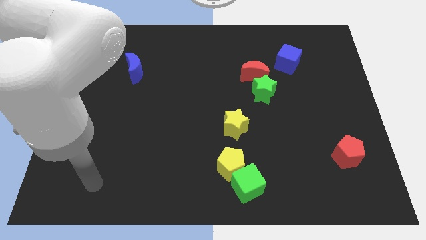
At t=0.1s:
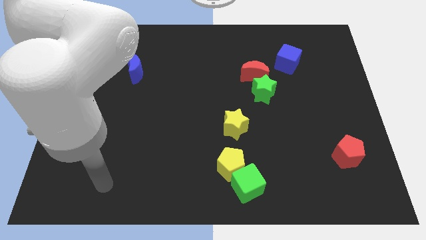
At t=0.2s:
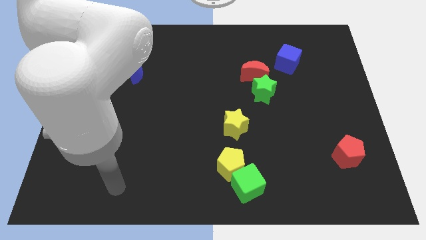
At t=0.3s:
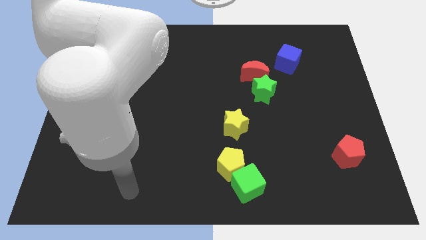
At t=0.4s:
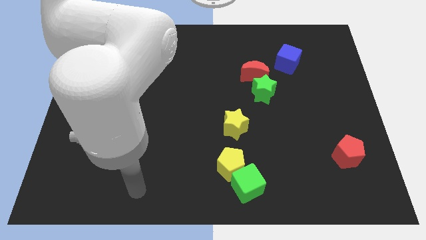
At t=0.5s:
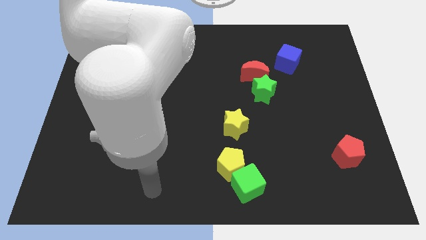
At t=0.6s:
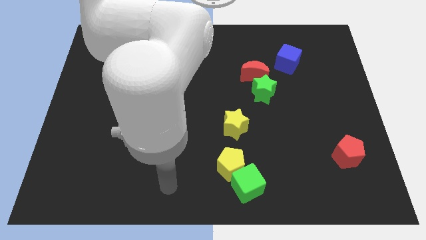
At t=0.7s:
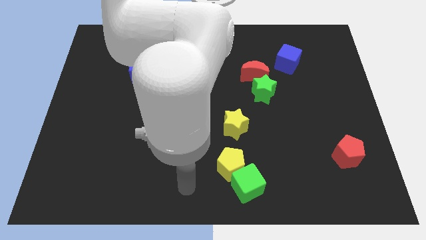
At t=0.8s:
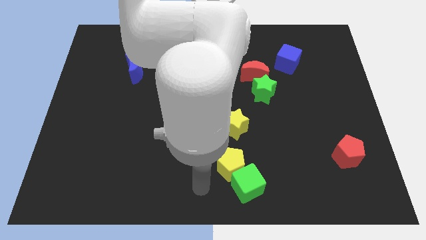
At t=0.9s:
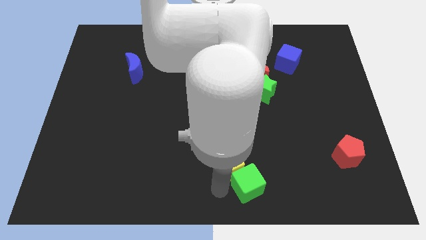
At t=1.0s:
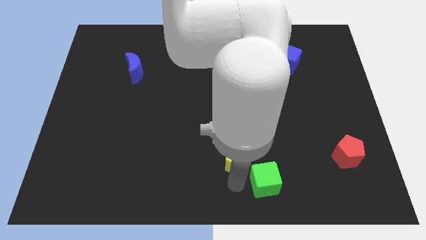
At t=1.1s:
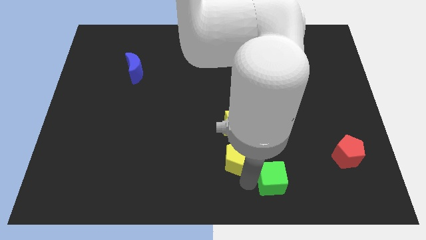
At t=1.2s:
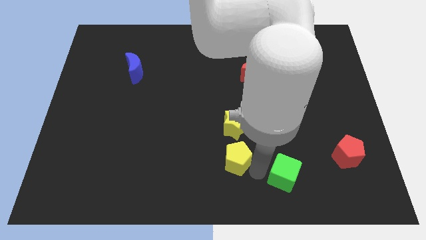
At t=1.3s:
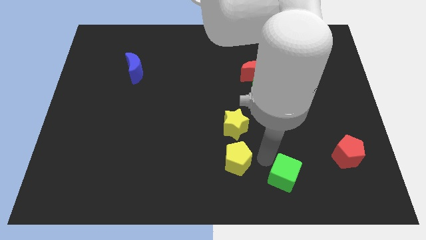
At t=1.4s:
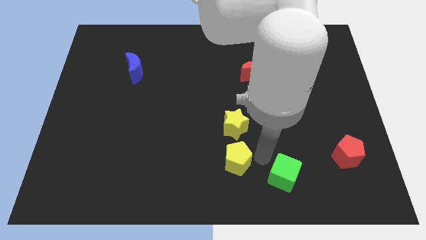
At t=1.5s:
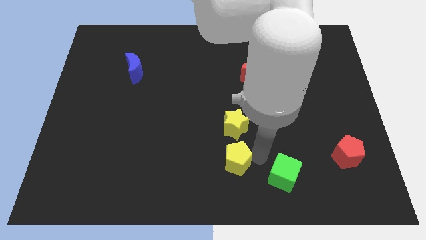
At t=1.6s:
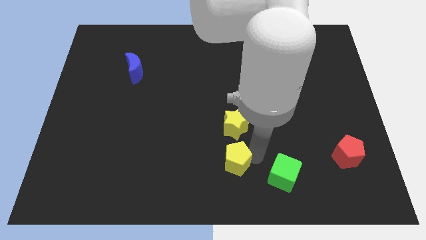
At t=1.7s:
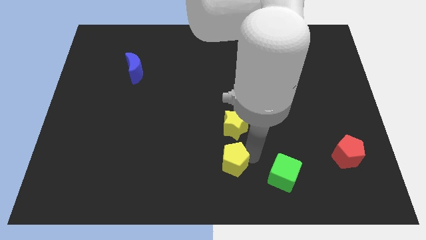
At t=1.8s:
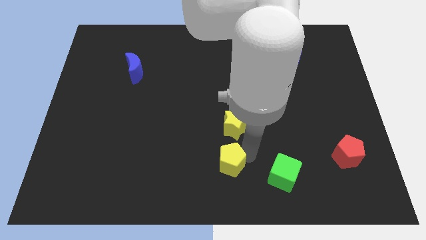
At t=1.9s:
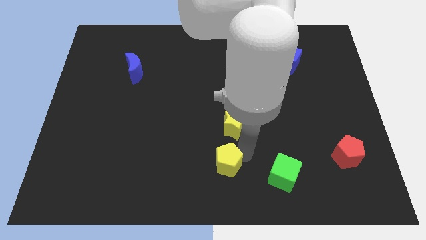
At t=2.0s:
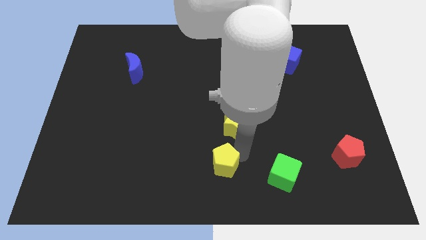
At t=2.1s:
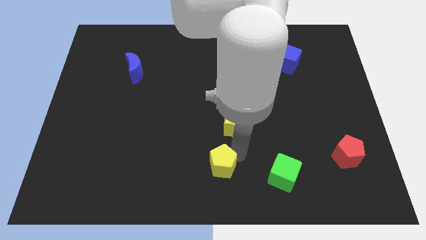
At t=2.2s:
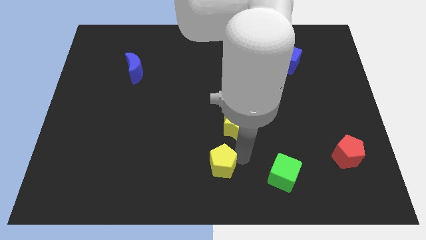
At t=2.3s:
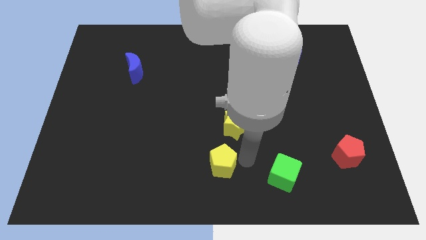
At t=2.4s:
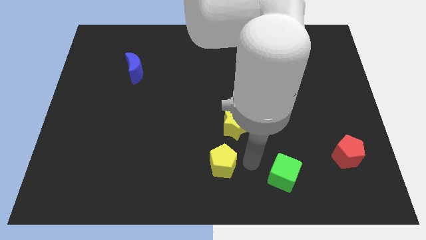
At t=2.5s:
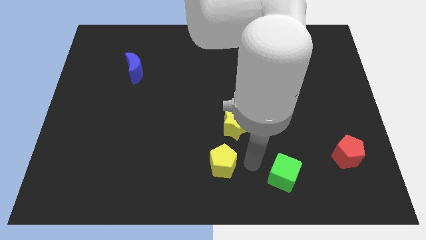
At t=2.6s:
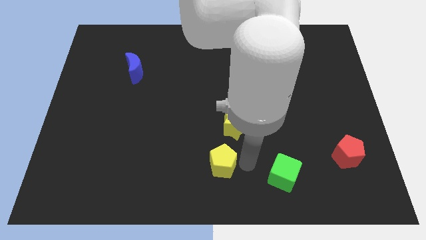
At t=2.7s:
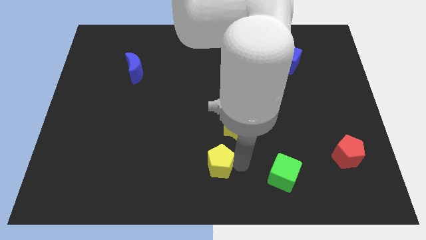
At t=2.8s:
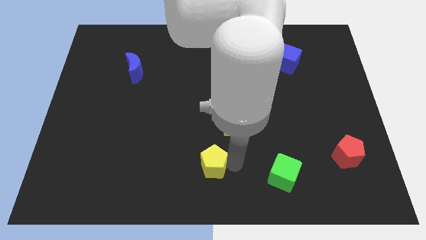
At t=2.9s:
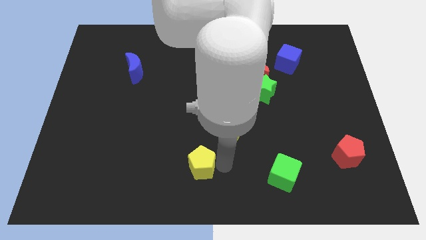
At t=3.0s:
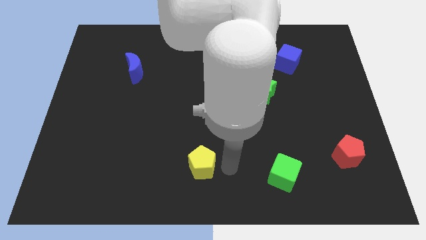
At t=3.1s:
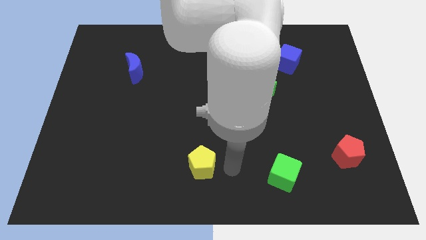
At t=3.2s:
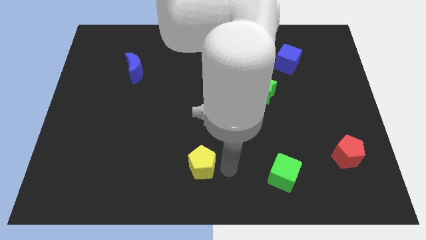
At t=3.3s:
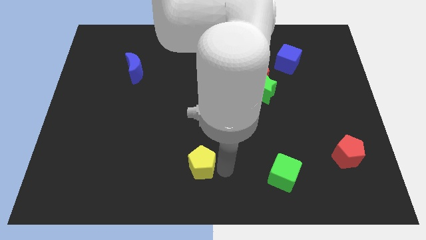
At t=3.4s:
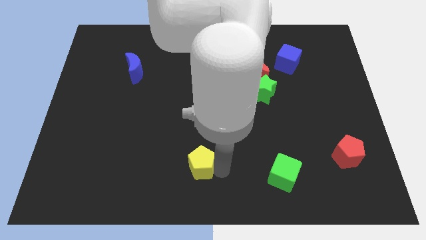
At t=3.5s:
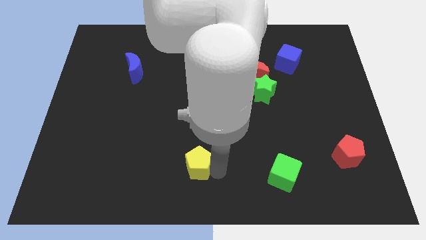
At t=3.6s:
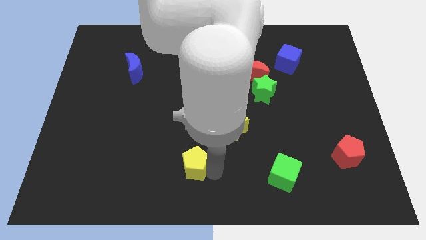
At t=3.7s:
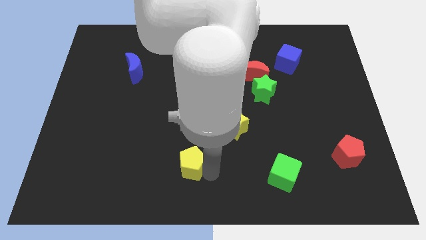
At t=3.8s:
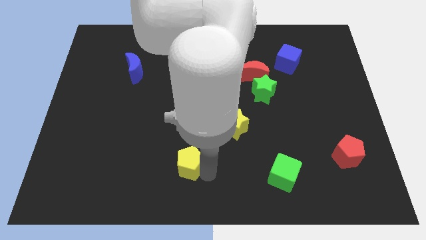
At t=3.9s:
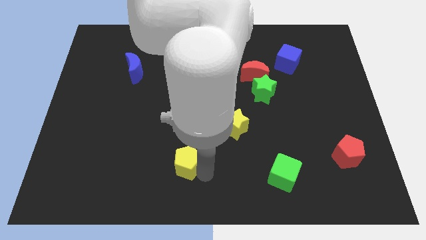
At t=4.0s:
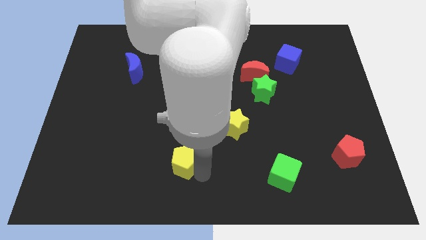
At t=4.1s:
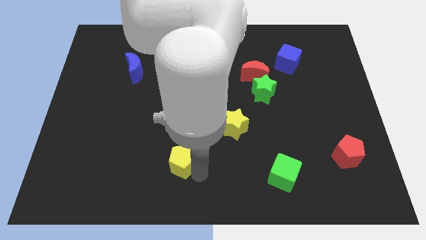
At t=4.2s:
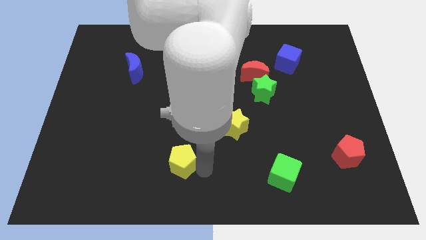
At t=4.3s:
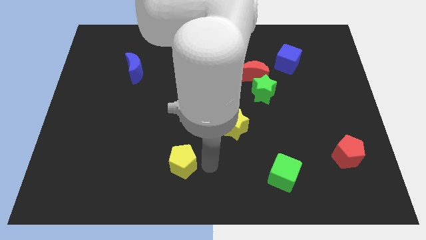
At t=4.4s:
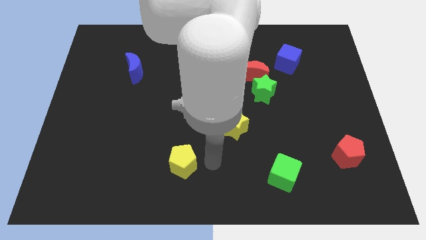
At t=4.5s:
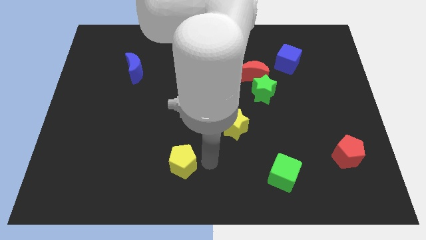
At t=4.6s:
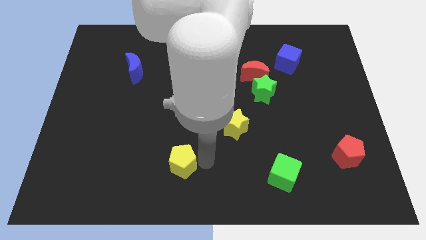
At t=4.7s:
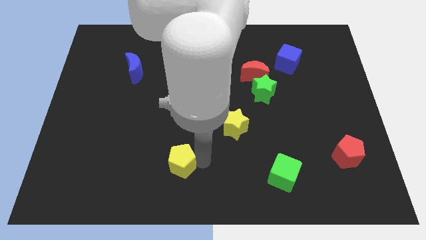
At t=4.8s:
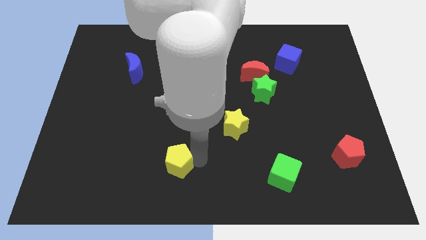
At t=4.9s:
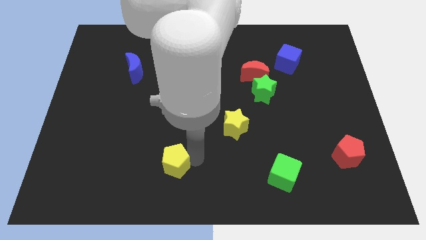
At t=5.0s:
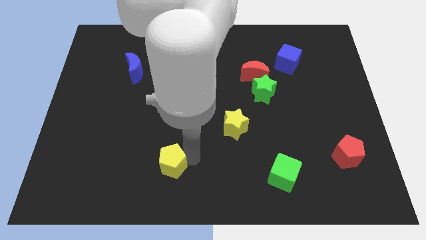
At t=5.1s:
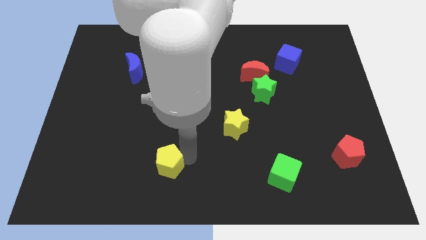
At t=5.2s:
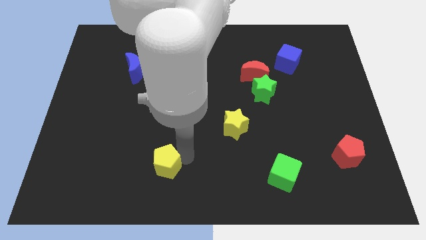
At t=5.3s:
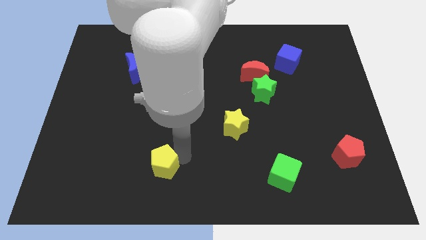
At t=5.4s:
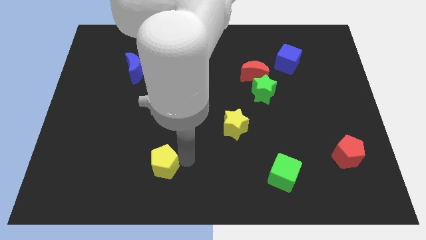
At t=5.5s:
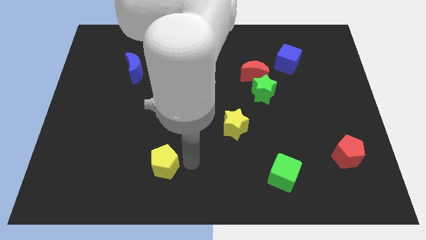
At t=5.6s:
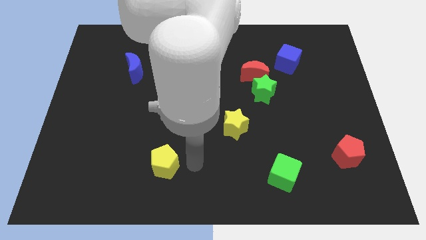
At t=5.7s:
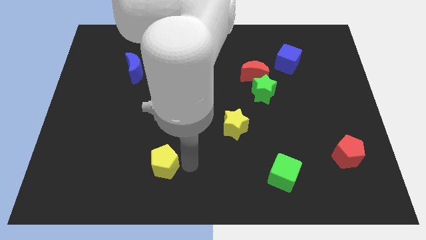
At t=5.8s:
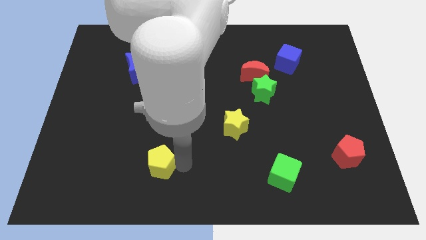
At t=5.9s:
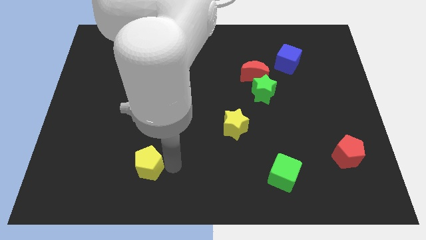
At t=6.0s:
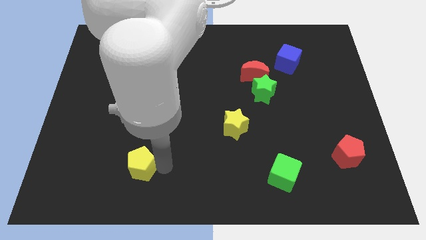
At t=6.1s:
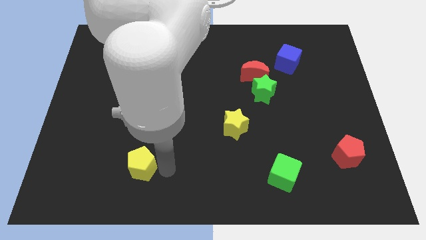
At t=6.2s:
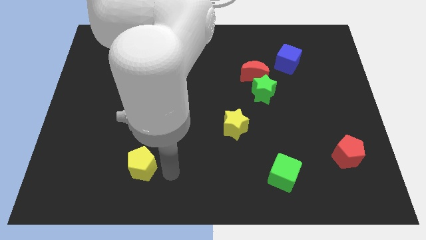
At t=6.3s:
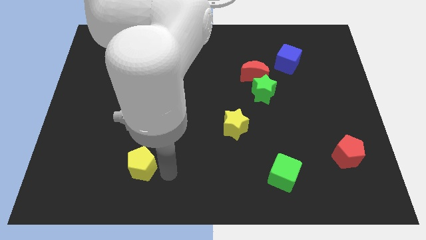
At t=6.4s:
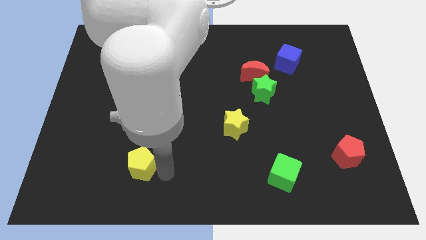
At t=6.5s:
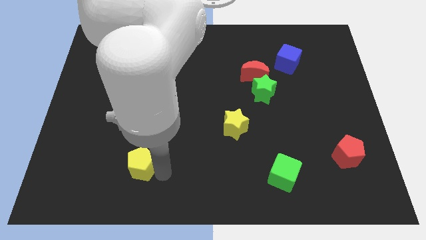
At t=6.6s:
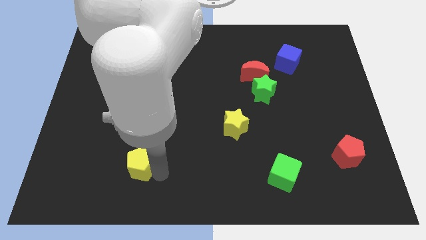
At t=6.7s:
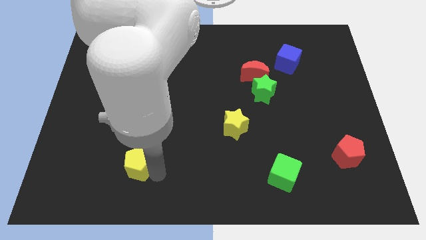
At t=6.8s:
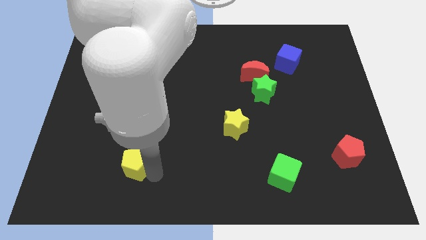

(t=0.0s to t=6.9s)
move the yellow pentagon to the left

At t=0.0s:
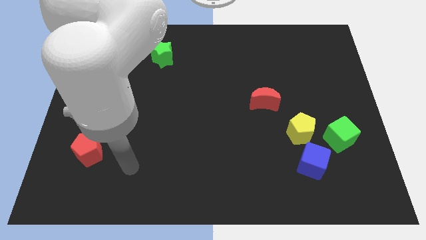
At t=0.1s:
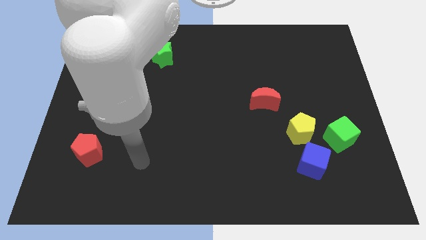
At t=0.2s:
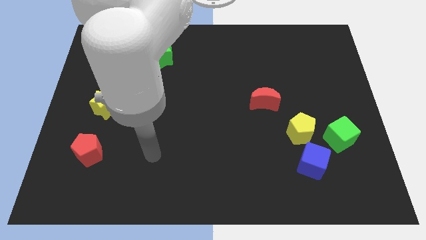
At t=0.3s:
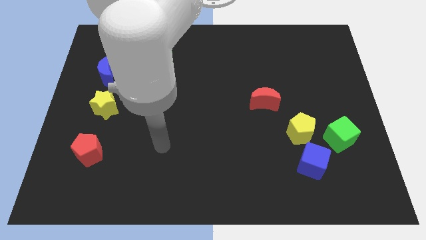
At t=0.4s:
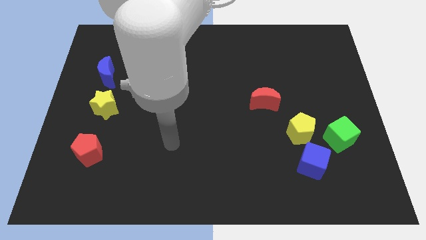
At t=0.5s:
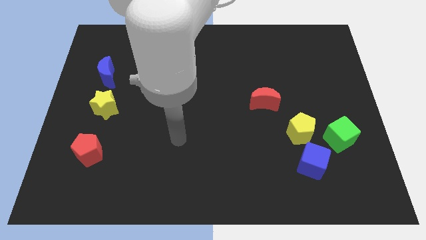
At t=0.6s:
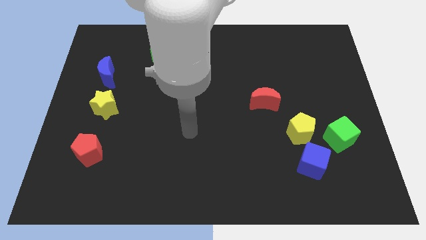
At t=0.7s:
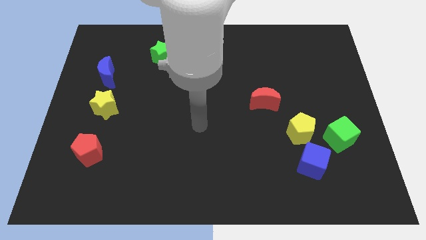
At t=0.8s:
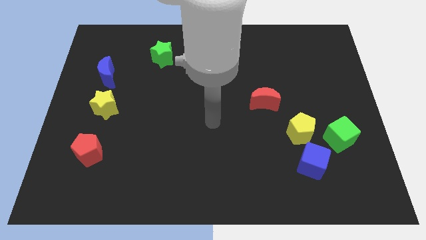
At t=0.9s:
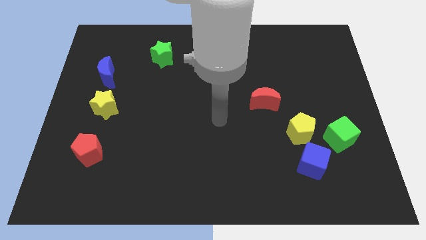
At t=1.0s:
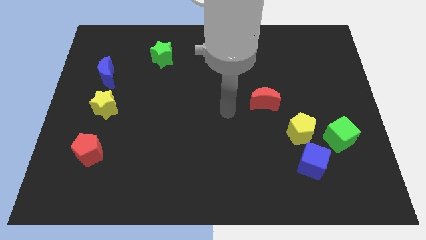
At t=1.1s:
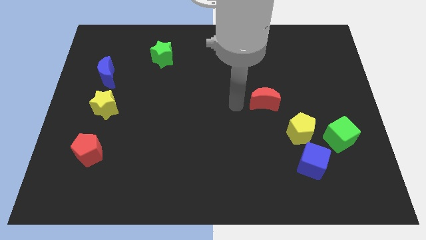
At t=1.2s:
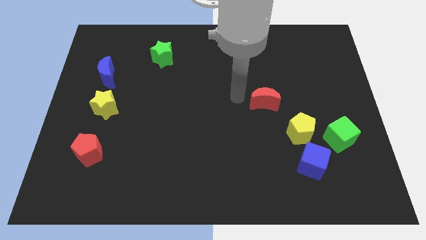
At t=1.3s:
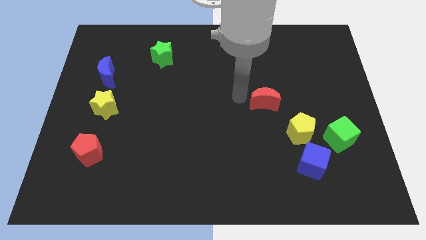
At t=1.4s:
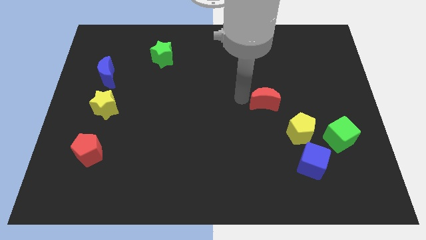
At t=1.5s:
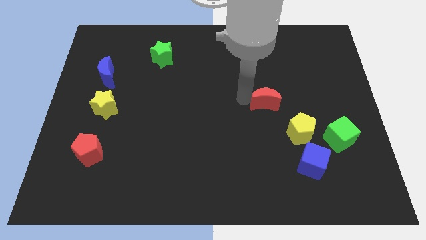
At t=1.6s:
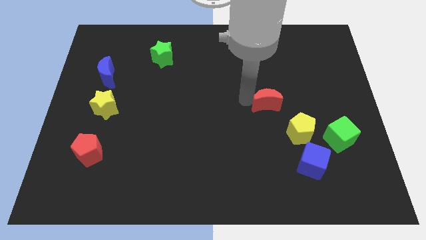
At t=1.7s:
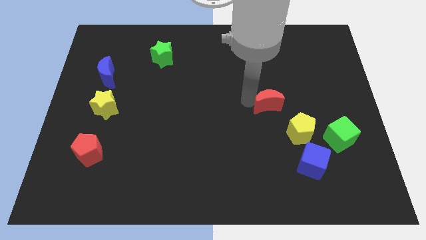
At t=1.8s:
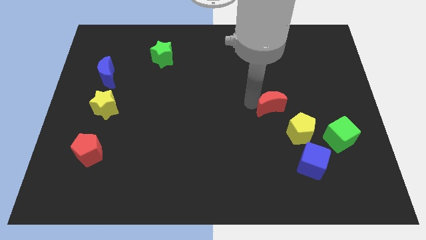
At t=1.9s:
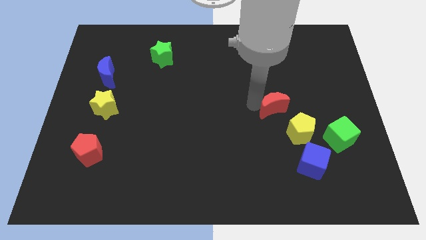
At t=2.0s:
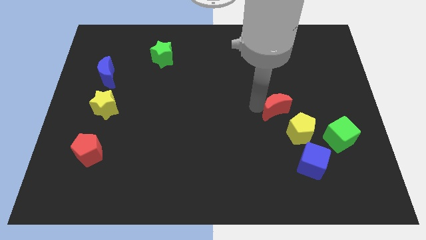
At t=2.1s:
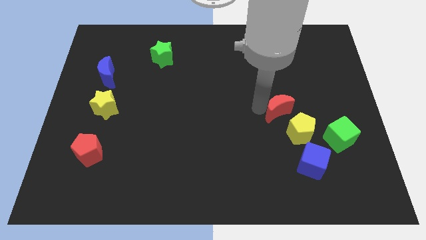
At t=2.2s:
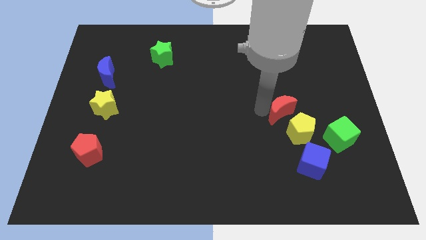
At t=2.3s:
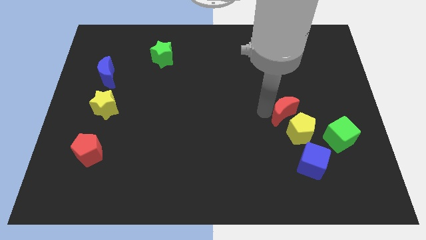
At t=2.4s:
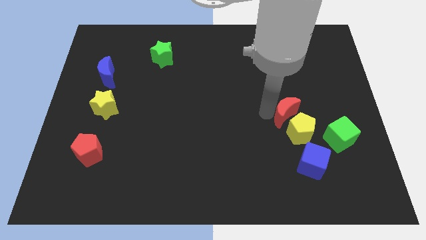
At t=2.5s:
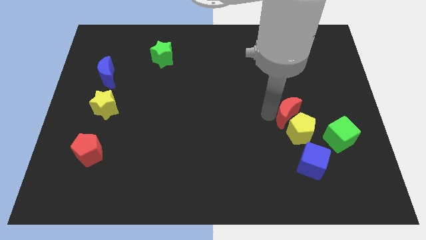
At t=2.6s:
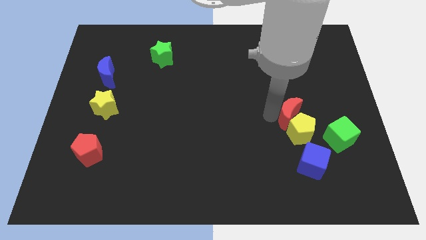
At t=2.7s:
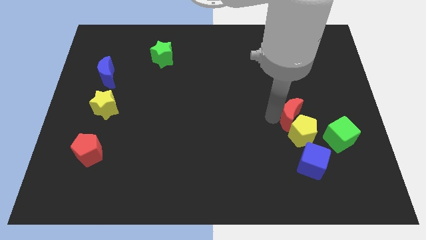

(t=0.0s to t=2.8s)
push the red moon down and to the right a little bit
